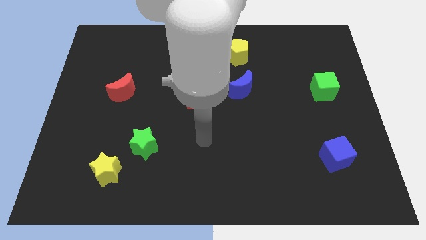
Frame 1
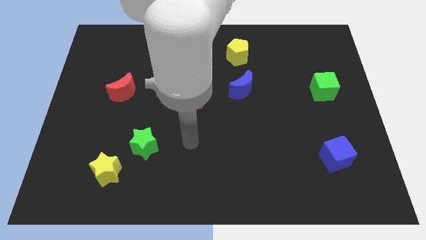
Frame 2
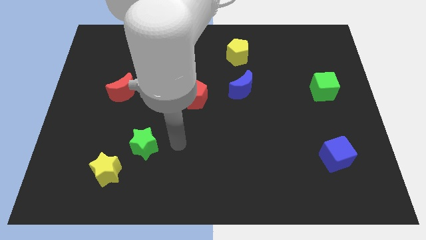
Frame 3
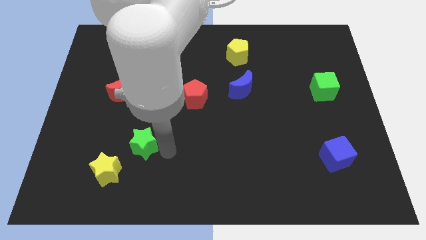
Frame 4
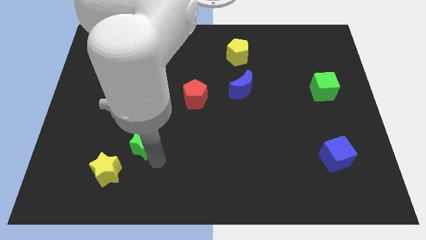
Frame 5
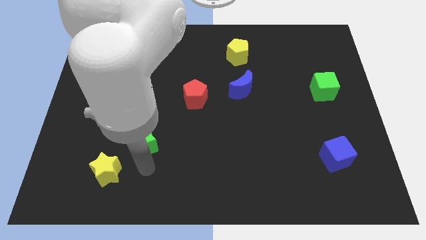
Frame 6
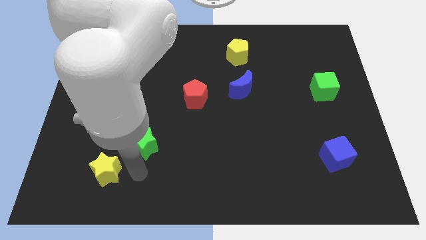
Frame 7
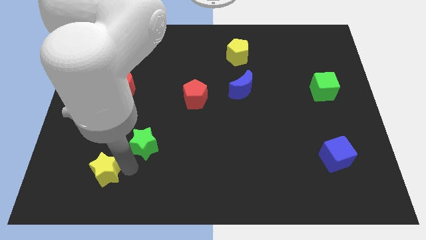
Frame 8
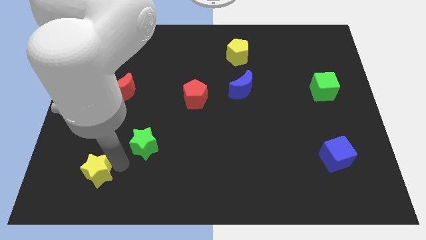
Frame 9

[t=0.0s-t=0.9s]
move the green star away from the yellow star

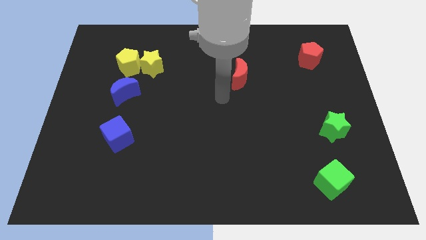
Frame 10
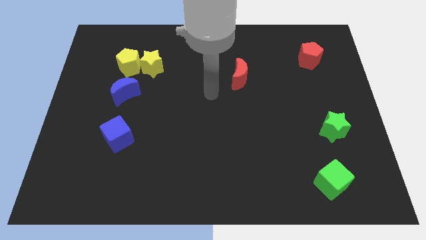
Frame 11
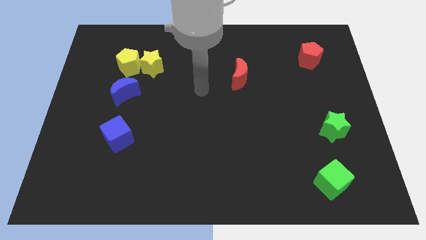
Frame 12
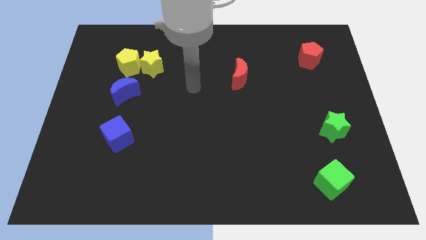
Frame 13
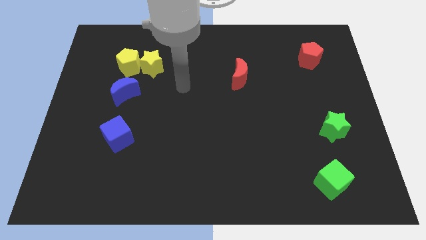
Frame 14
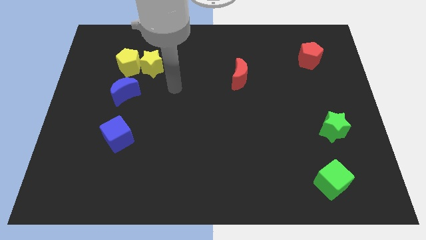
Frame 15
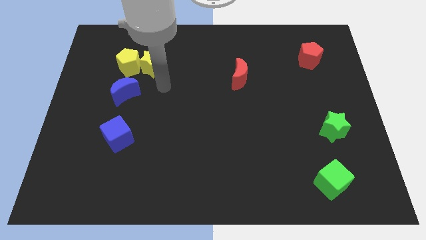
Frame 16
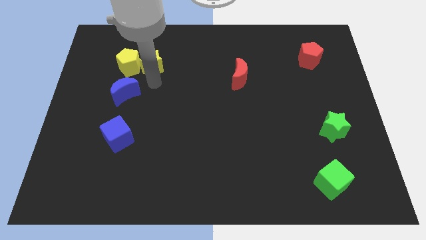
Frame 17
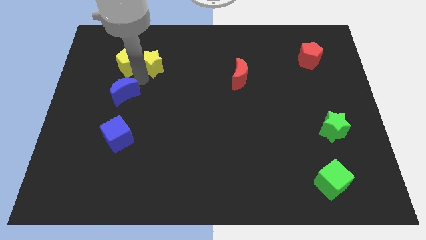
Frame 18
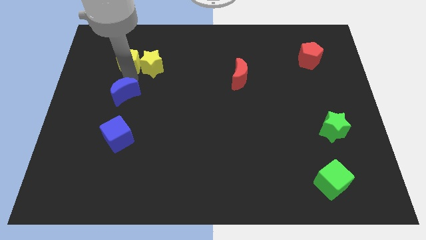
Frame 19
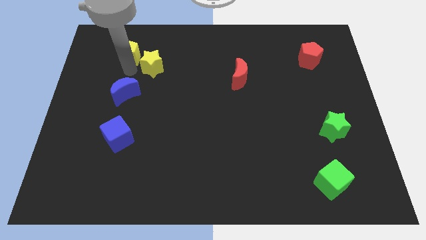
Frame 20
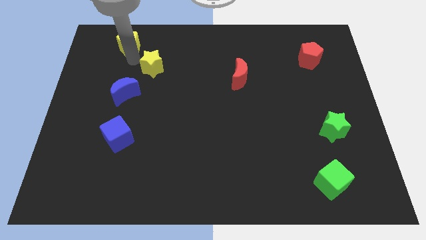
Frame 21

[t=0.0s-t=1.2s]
move the yellow star away from the yellow pentagon

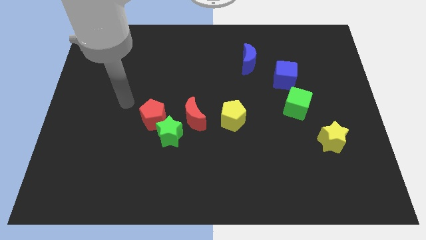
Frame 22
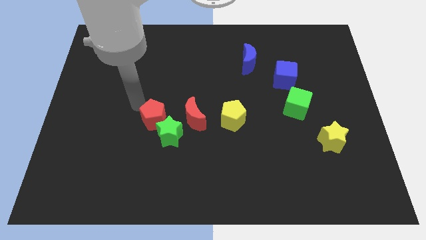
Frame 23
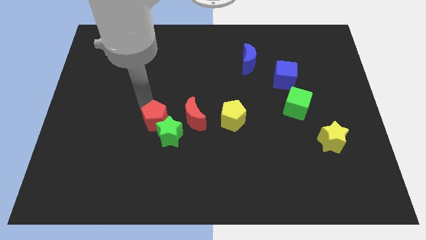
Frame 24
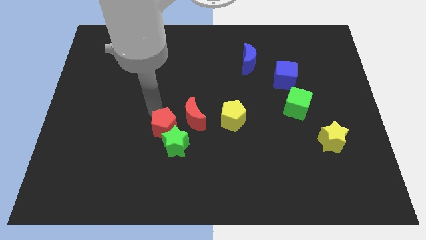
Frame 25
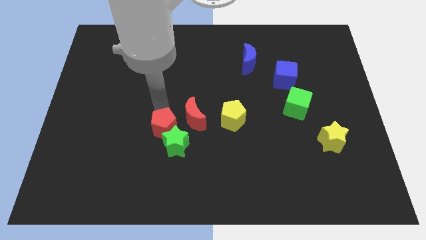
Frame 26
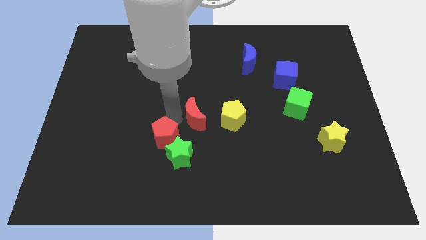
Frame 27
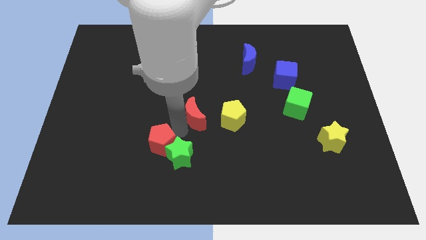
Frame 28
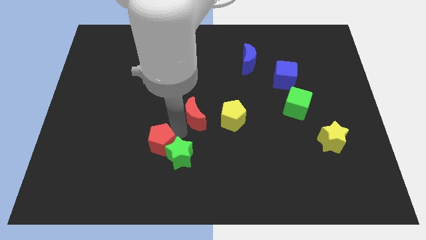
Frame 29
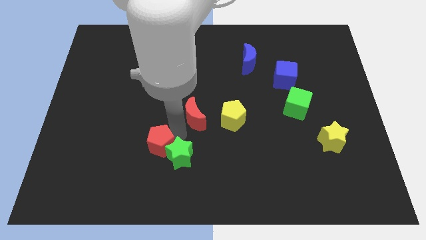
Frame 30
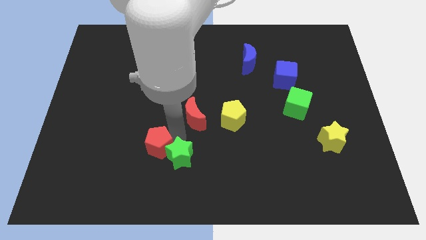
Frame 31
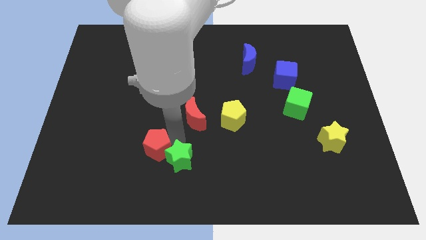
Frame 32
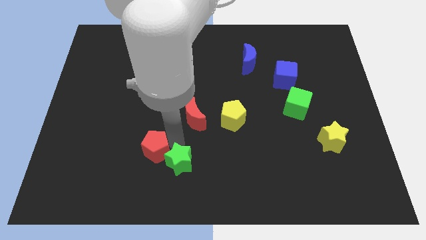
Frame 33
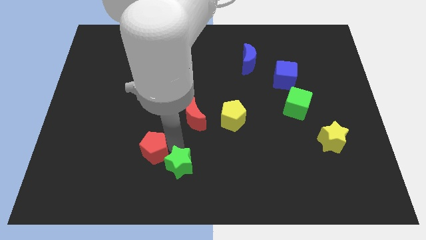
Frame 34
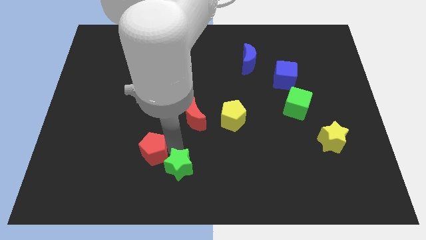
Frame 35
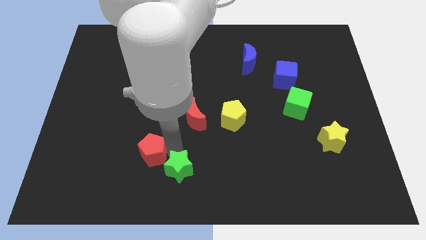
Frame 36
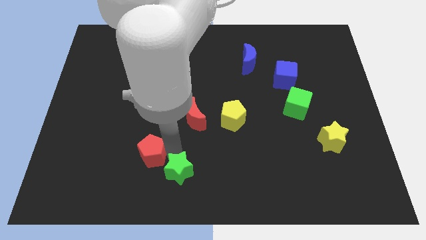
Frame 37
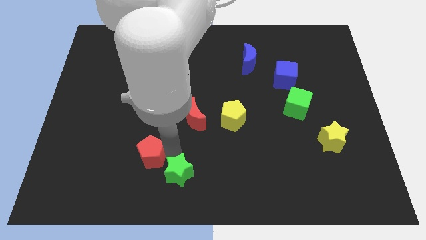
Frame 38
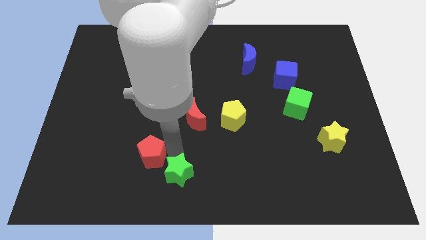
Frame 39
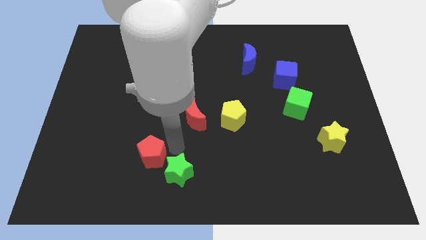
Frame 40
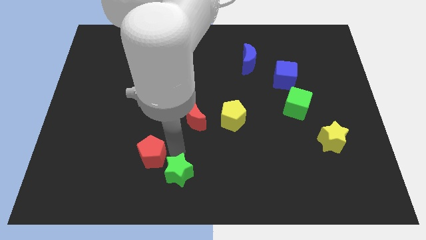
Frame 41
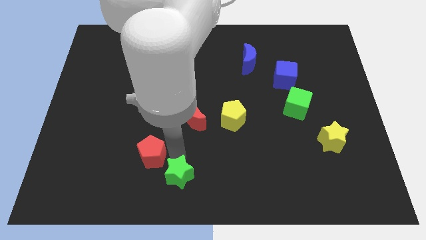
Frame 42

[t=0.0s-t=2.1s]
pull the green star apart from the red pentagon and red moon

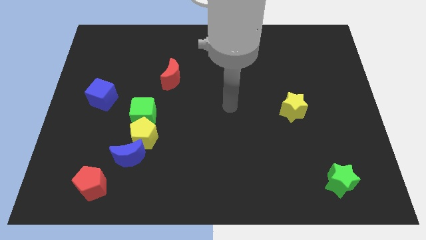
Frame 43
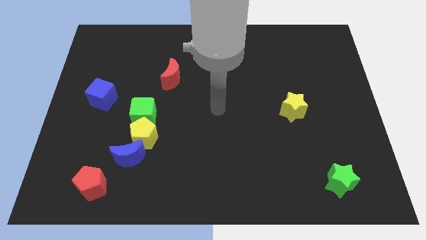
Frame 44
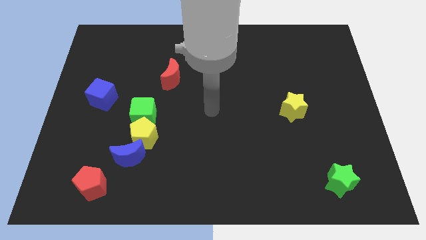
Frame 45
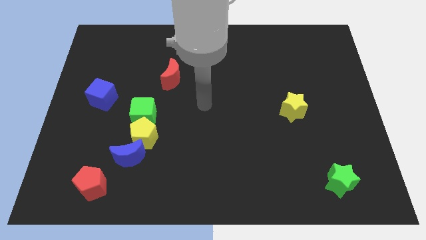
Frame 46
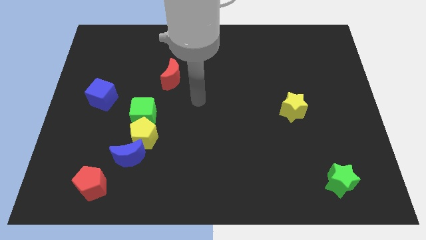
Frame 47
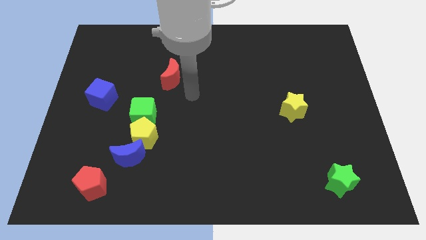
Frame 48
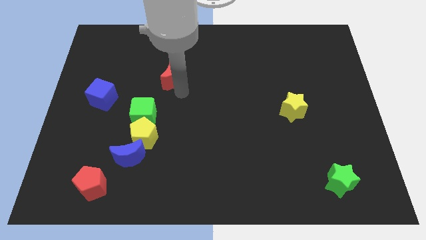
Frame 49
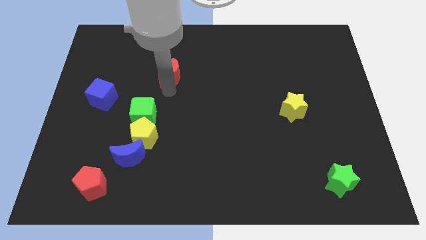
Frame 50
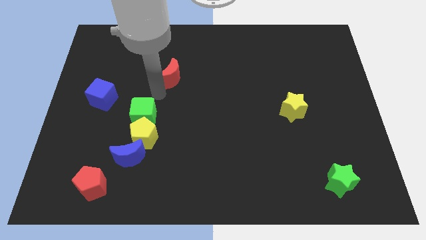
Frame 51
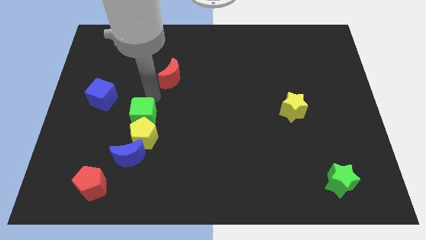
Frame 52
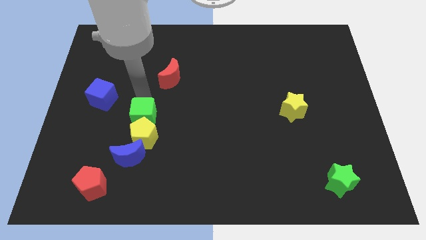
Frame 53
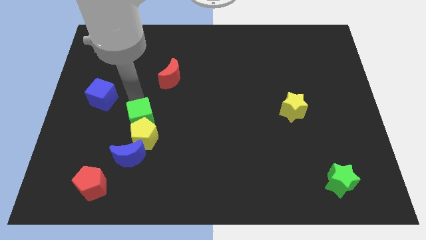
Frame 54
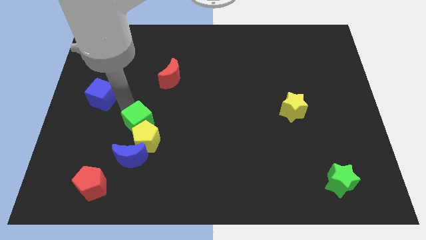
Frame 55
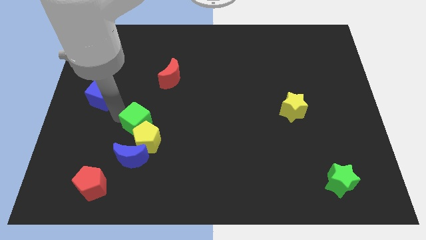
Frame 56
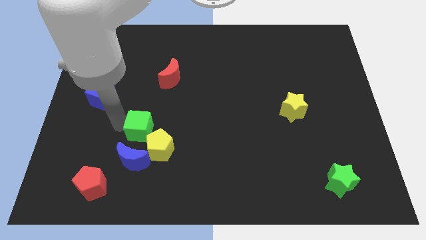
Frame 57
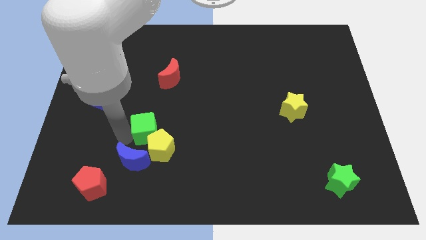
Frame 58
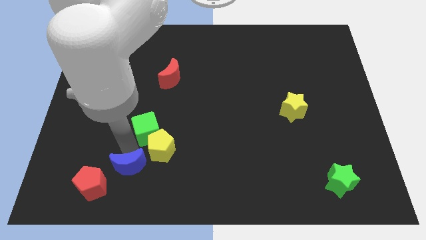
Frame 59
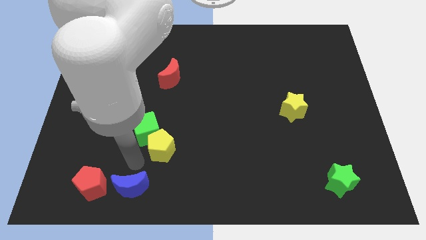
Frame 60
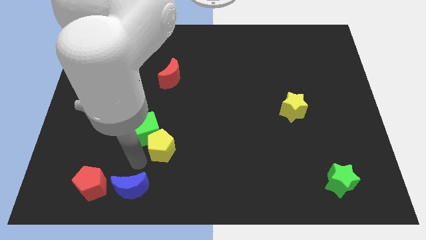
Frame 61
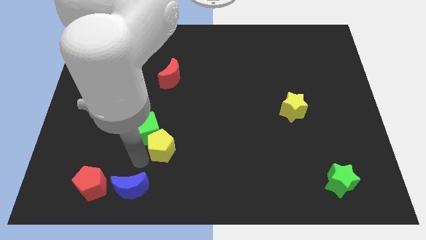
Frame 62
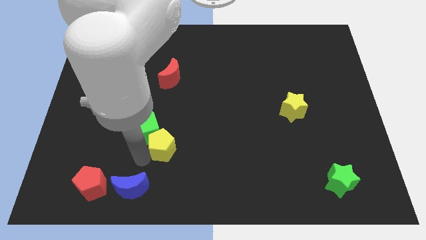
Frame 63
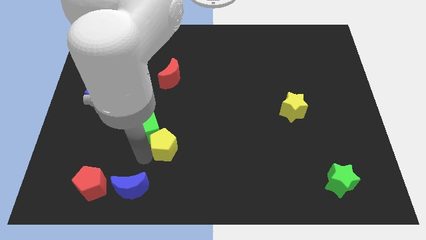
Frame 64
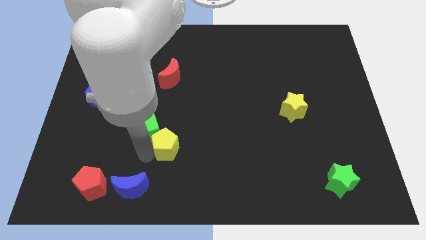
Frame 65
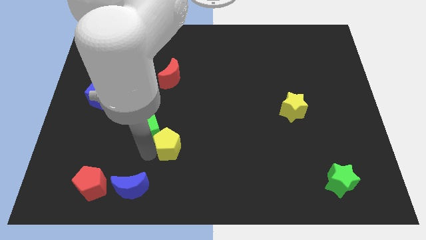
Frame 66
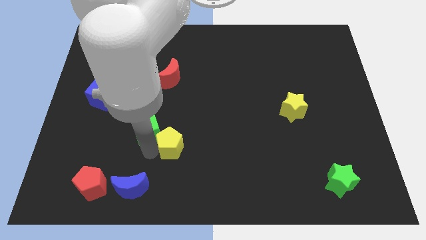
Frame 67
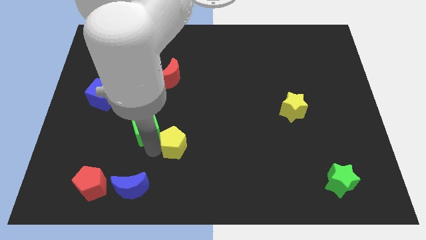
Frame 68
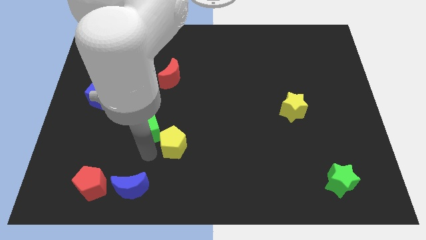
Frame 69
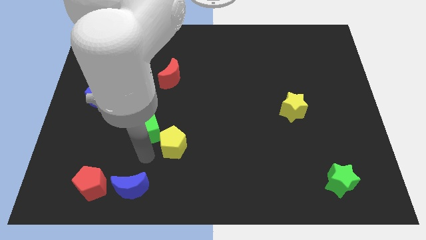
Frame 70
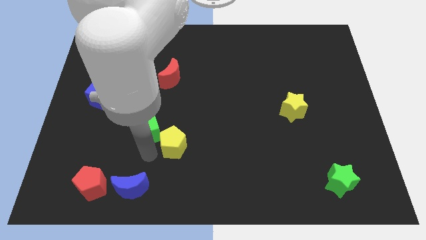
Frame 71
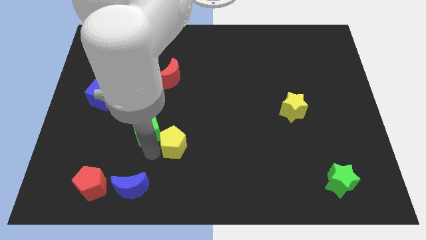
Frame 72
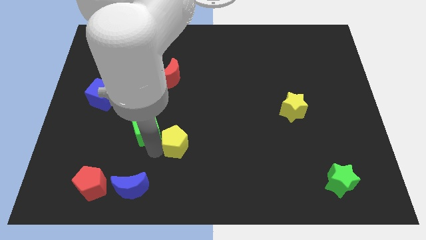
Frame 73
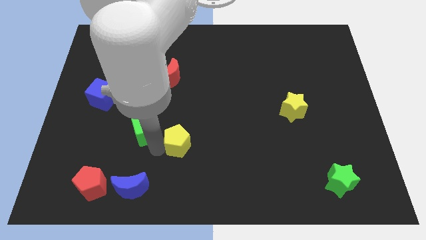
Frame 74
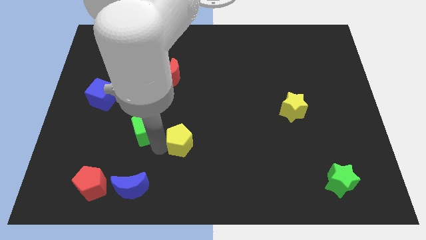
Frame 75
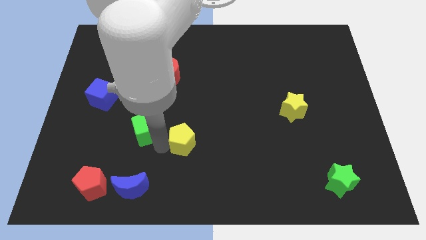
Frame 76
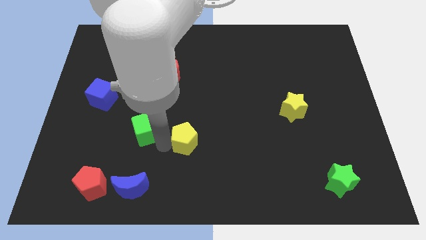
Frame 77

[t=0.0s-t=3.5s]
move the yellow pentagon away from the blue moon and green cube

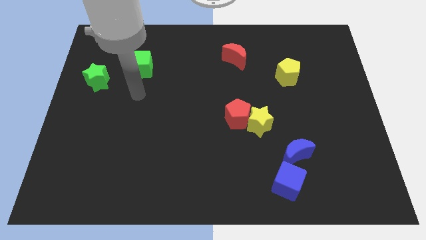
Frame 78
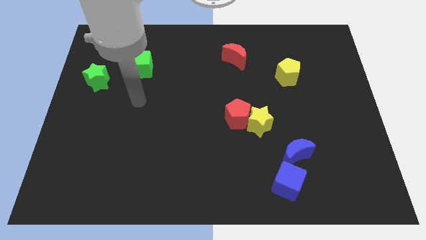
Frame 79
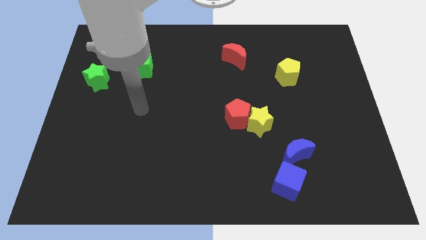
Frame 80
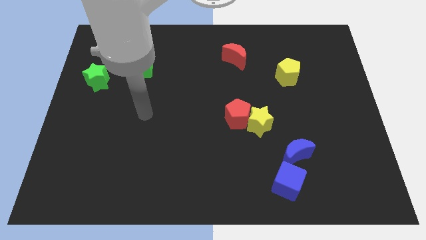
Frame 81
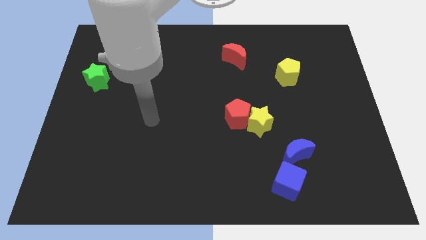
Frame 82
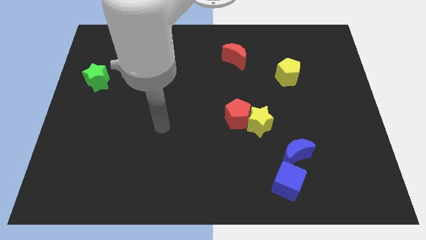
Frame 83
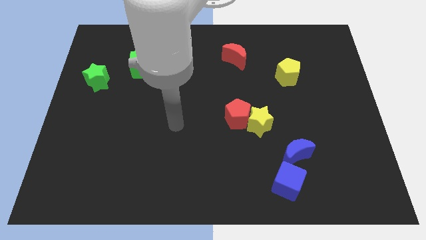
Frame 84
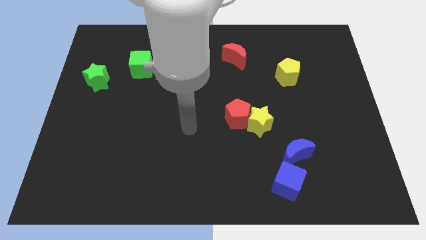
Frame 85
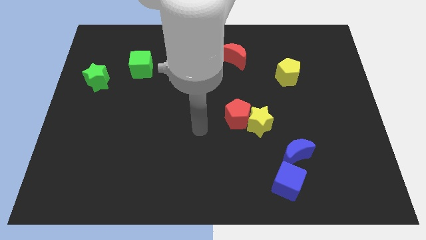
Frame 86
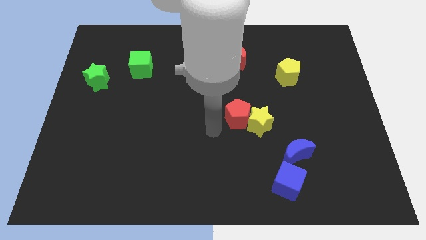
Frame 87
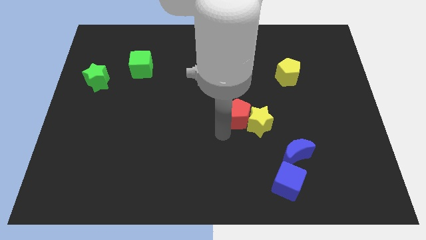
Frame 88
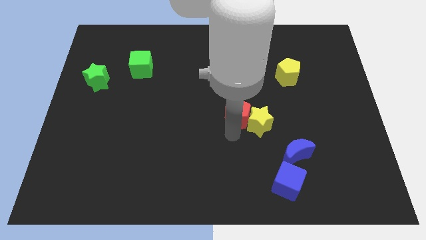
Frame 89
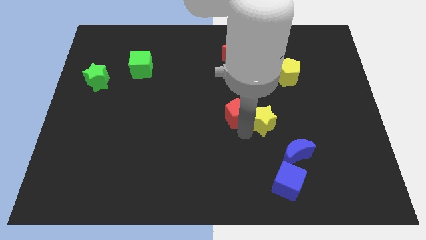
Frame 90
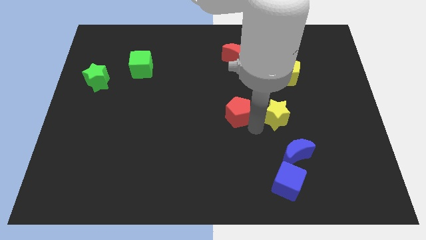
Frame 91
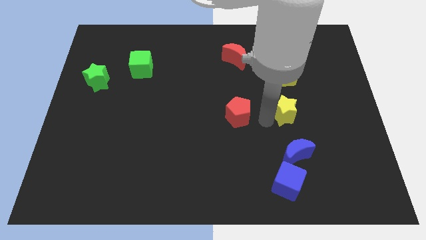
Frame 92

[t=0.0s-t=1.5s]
move the red pentagon away from the yellow star
